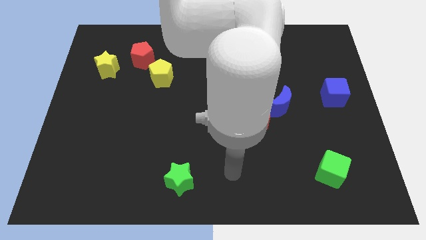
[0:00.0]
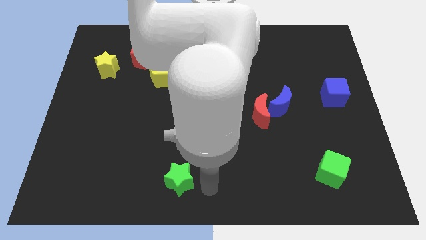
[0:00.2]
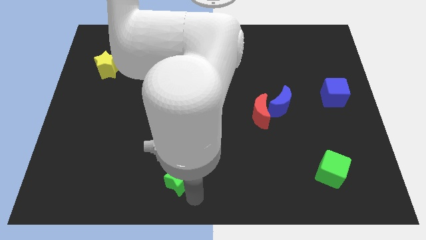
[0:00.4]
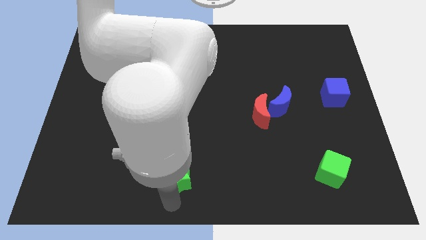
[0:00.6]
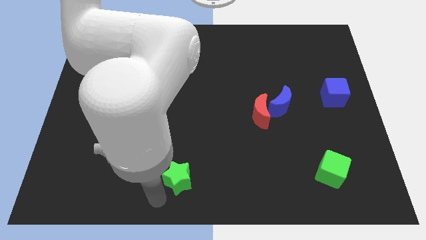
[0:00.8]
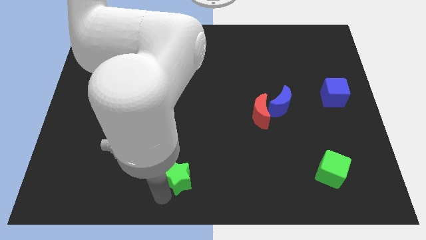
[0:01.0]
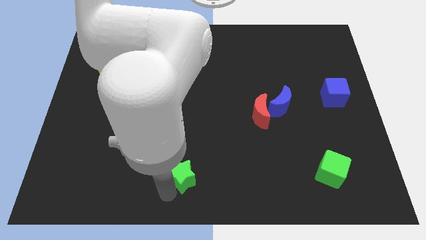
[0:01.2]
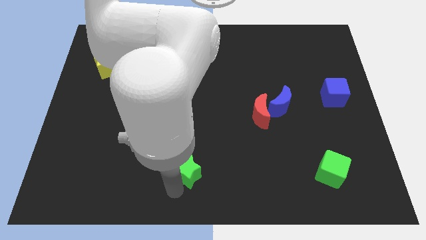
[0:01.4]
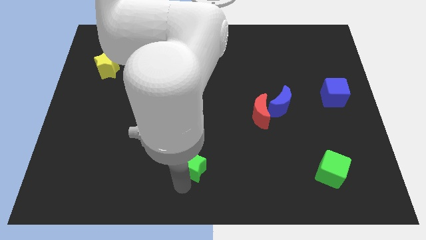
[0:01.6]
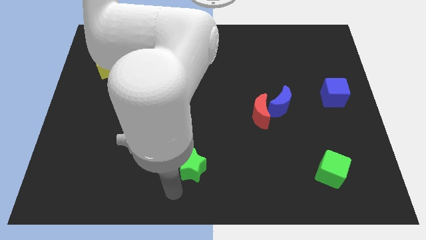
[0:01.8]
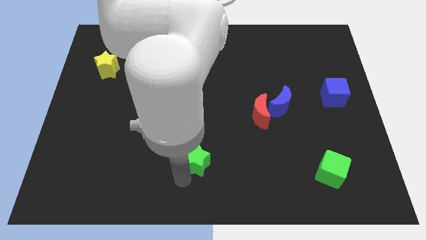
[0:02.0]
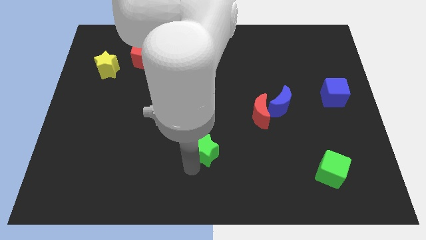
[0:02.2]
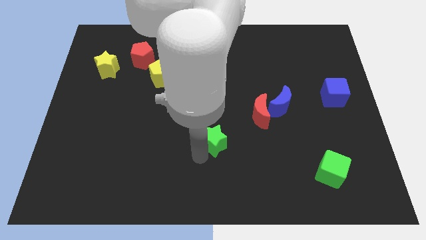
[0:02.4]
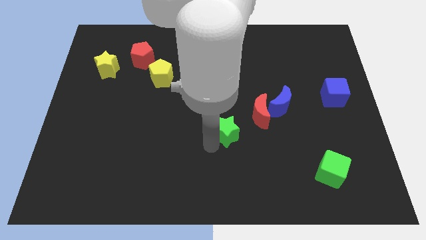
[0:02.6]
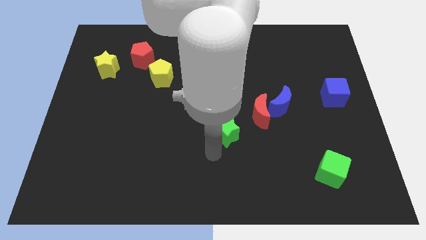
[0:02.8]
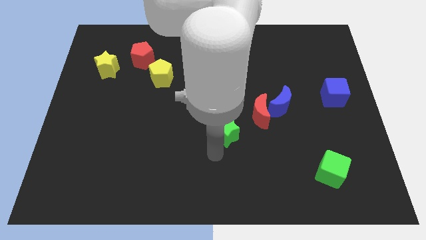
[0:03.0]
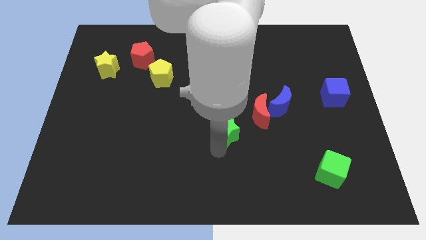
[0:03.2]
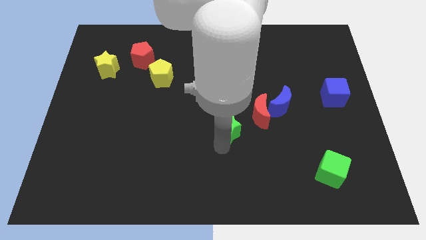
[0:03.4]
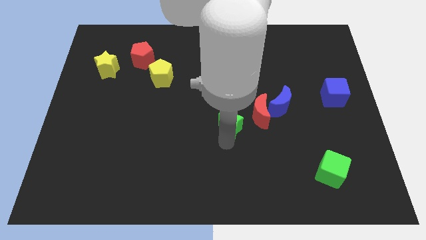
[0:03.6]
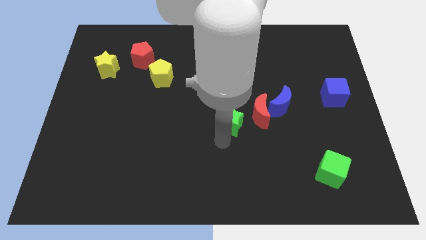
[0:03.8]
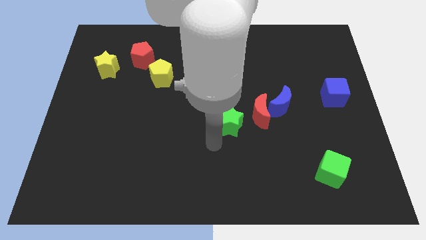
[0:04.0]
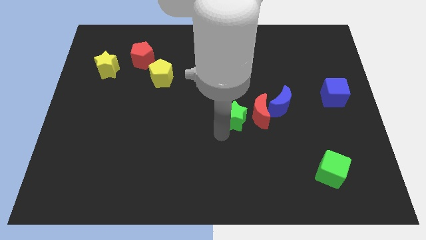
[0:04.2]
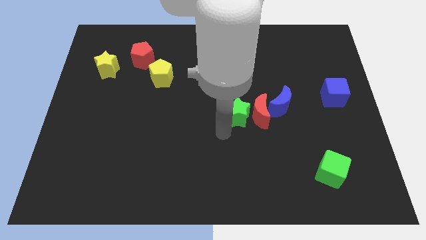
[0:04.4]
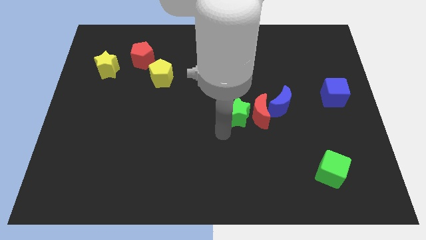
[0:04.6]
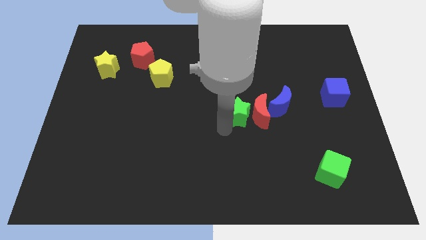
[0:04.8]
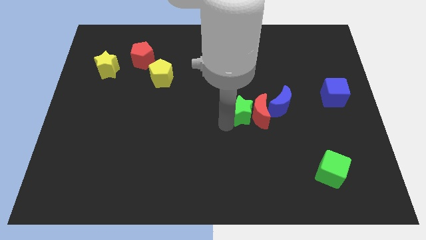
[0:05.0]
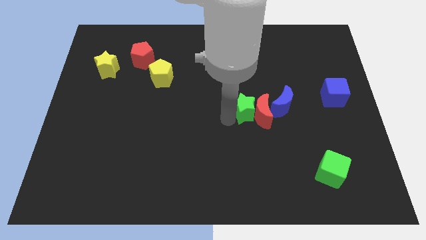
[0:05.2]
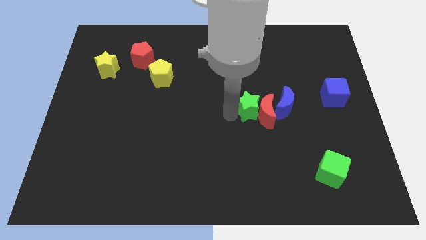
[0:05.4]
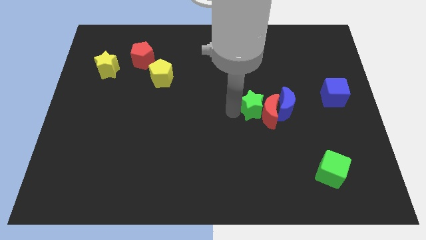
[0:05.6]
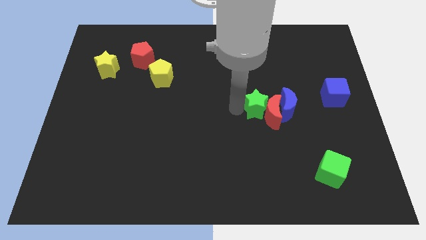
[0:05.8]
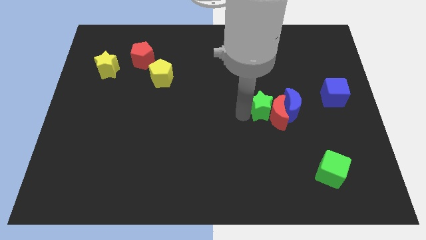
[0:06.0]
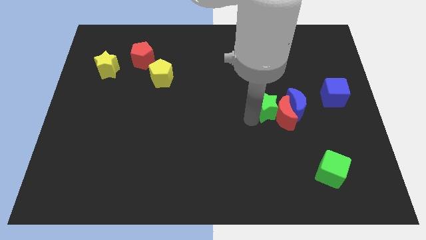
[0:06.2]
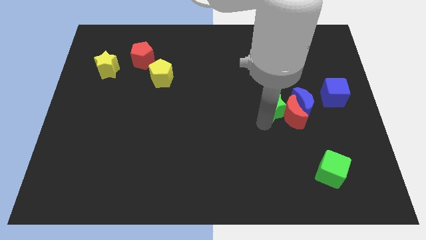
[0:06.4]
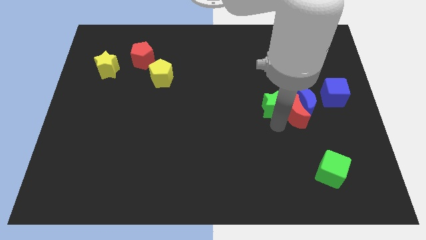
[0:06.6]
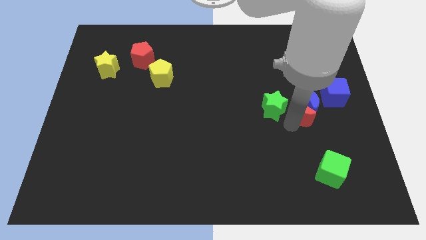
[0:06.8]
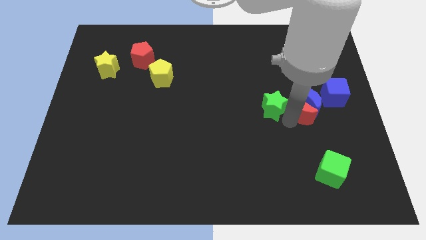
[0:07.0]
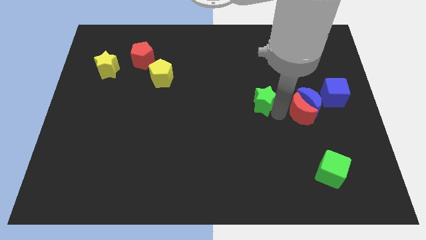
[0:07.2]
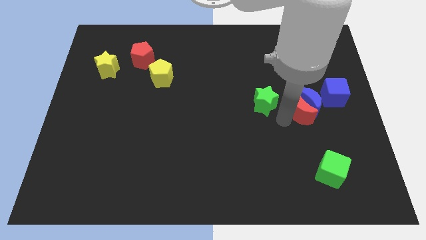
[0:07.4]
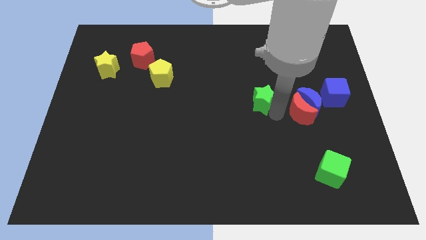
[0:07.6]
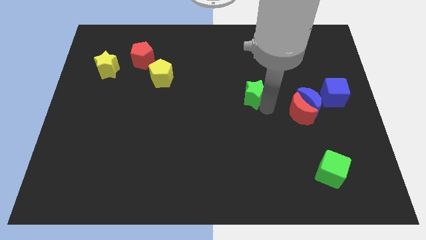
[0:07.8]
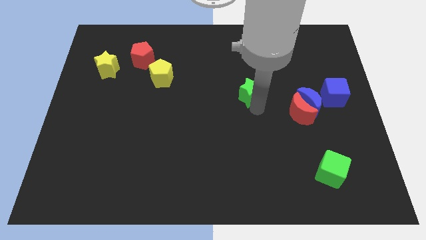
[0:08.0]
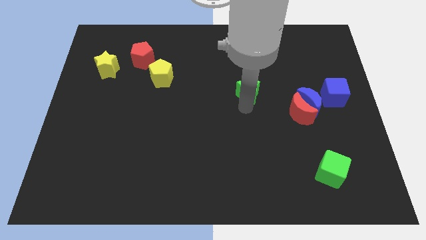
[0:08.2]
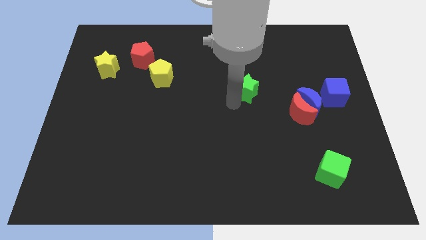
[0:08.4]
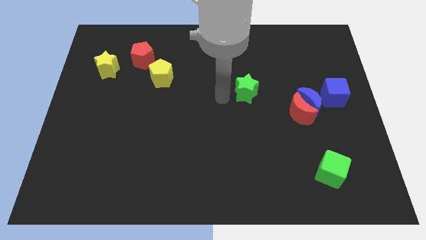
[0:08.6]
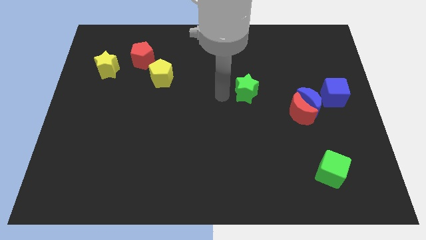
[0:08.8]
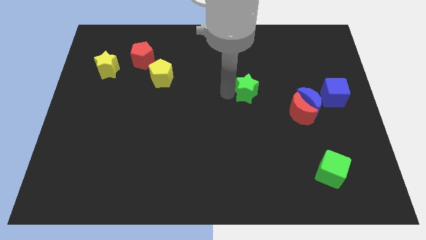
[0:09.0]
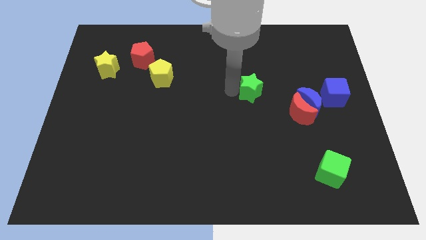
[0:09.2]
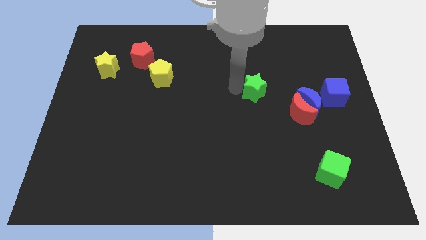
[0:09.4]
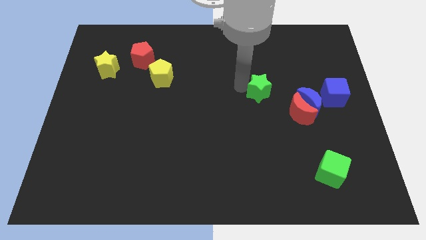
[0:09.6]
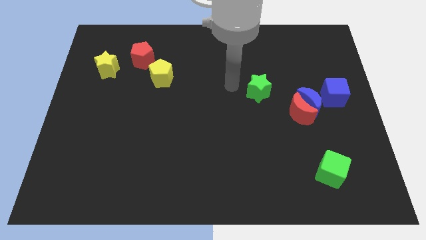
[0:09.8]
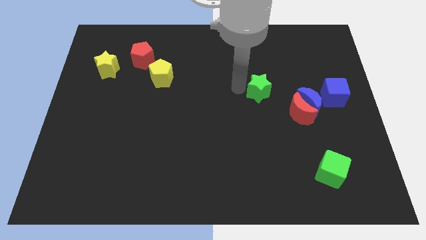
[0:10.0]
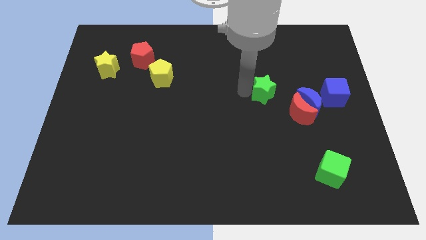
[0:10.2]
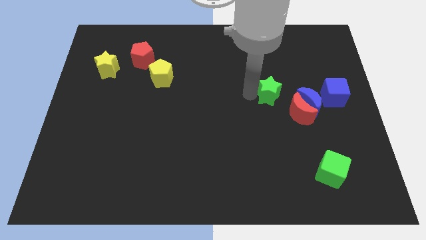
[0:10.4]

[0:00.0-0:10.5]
slide the green star to the left of the blue cube

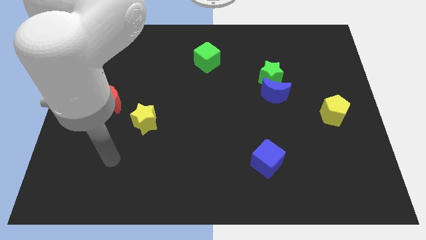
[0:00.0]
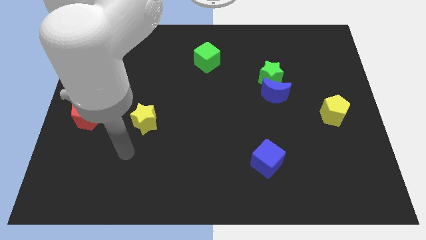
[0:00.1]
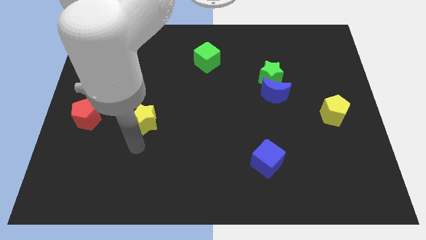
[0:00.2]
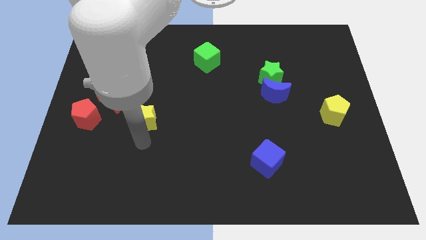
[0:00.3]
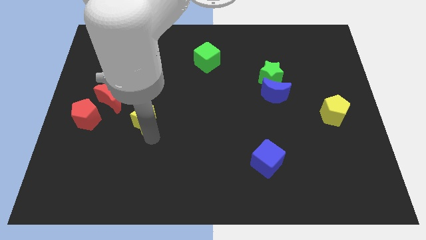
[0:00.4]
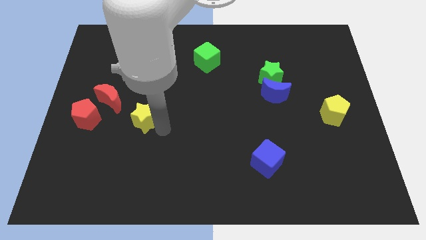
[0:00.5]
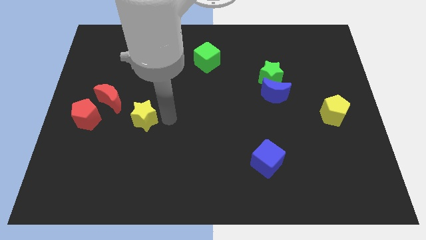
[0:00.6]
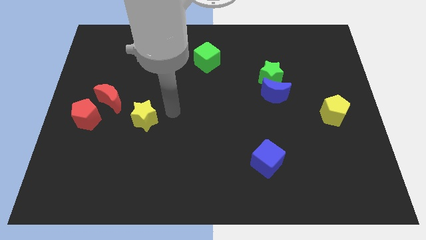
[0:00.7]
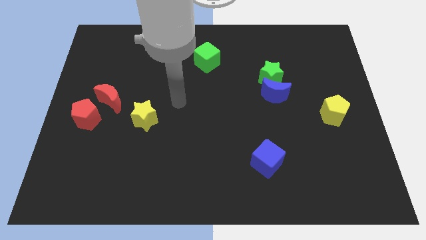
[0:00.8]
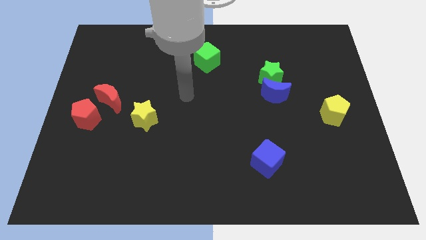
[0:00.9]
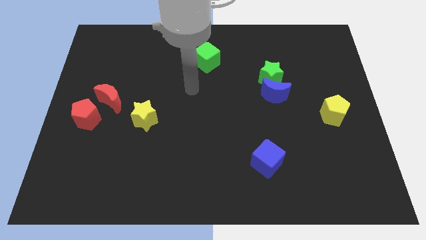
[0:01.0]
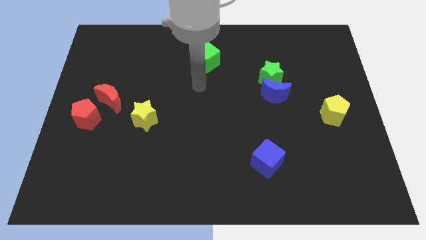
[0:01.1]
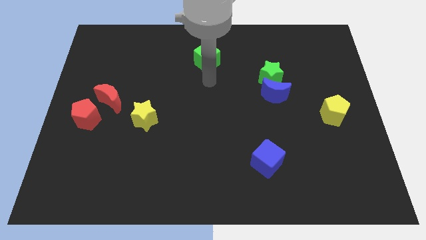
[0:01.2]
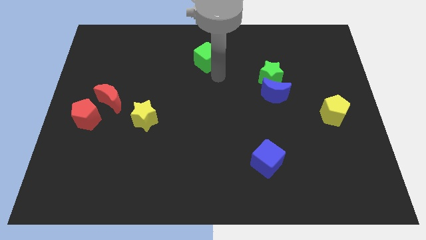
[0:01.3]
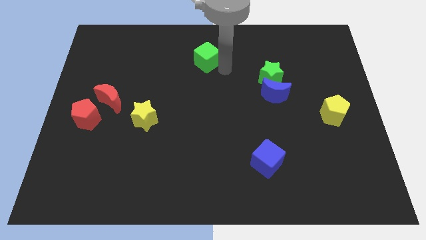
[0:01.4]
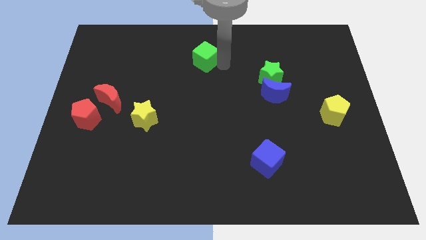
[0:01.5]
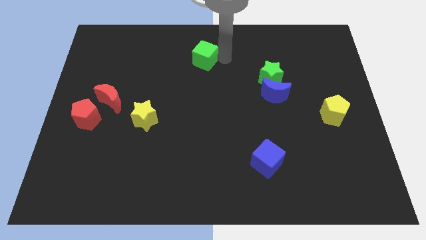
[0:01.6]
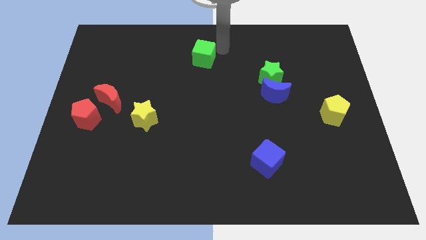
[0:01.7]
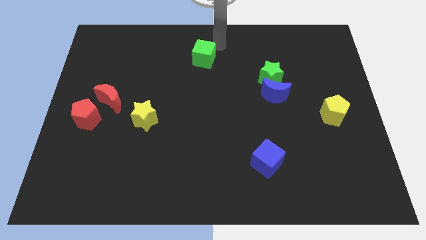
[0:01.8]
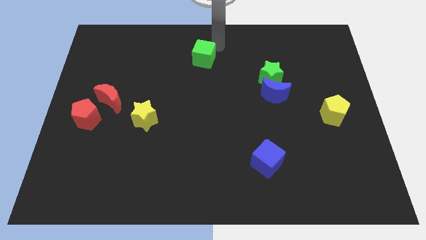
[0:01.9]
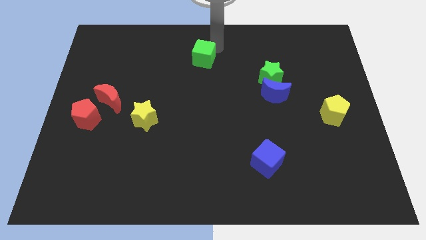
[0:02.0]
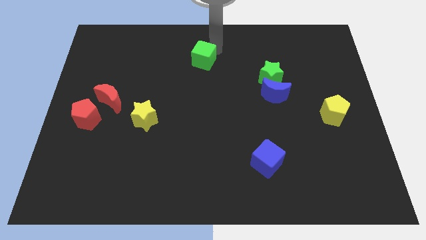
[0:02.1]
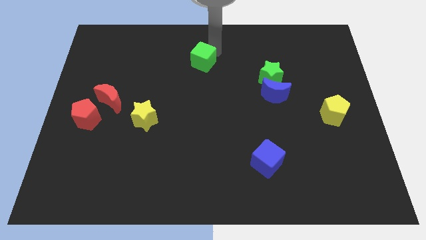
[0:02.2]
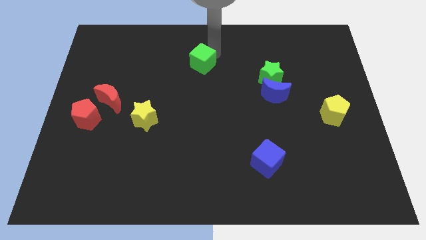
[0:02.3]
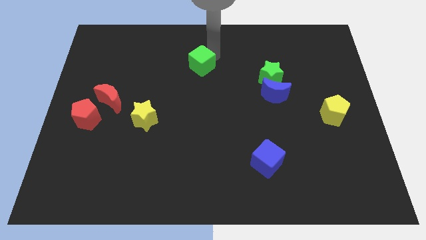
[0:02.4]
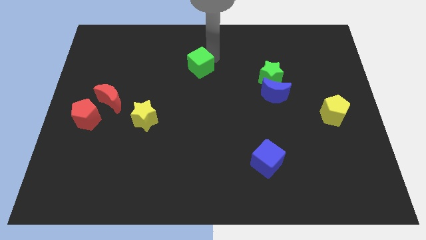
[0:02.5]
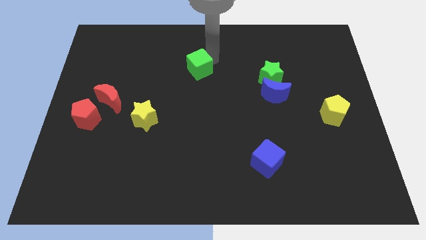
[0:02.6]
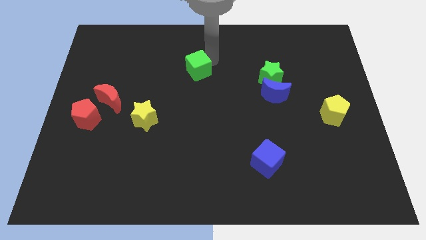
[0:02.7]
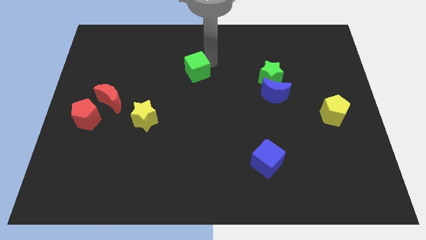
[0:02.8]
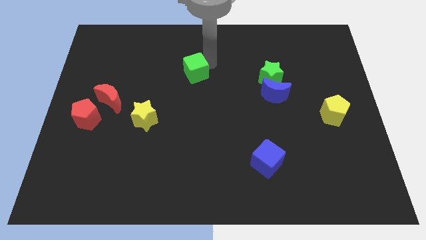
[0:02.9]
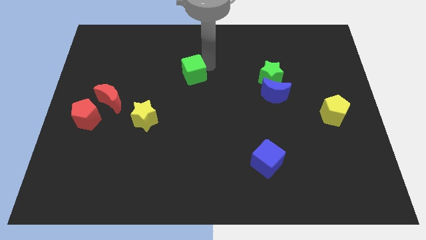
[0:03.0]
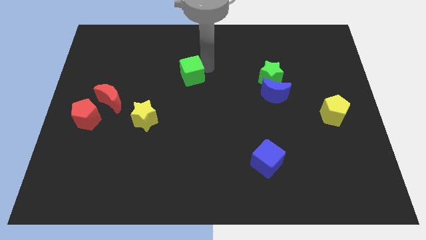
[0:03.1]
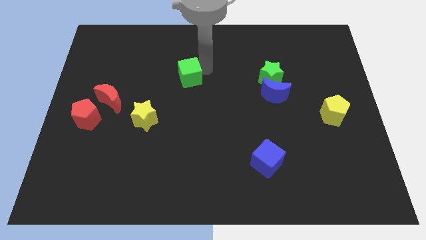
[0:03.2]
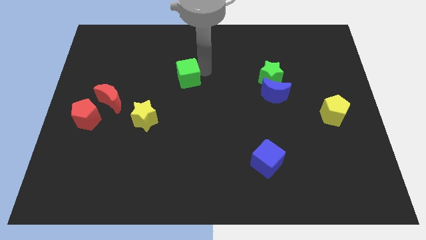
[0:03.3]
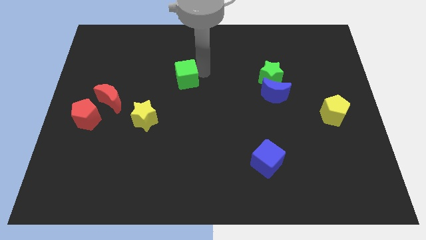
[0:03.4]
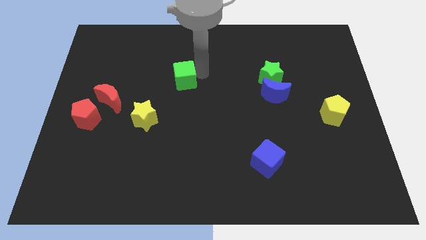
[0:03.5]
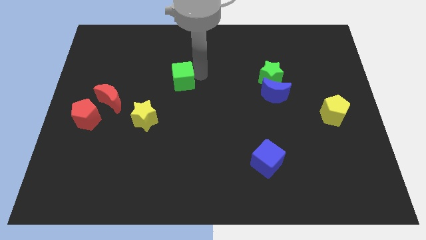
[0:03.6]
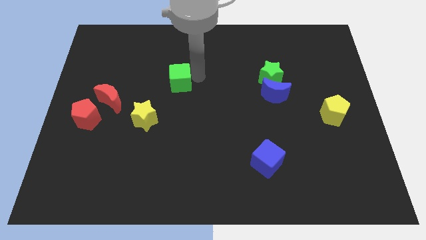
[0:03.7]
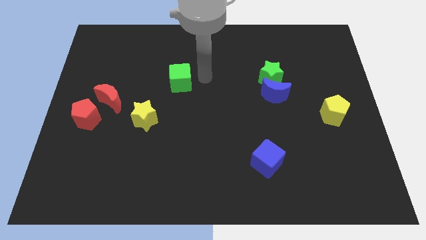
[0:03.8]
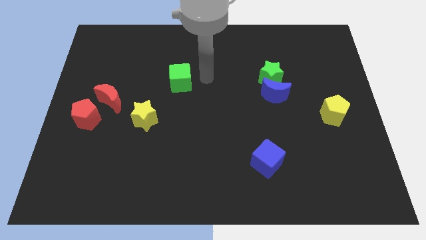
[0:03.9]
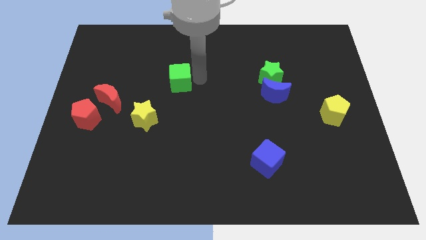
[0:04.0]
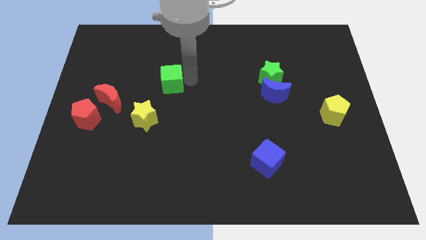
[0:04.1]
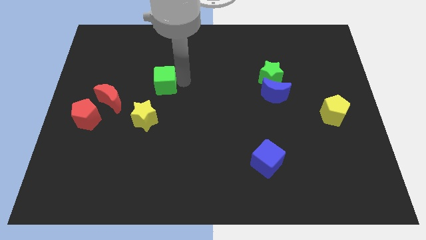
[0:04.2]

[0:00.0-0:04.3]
move the green cube to the top of the yellow star
